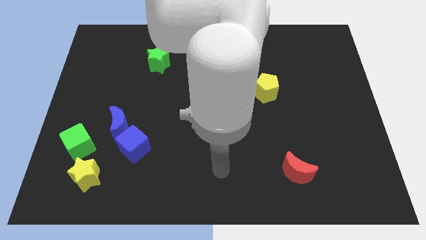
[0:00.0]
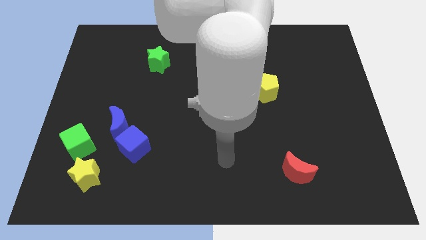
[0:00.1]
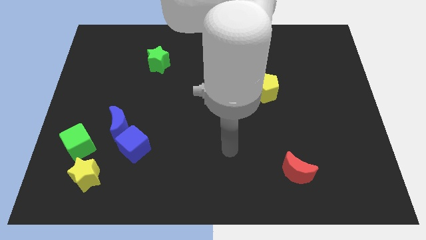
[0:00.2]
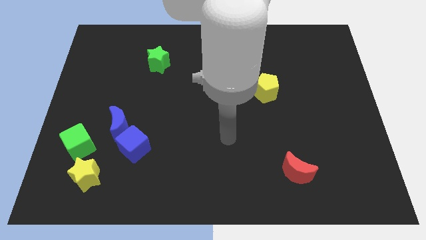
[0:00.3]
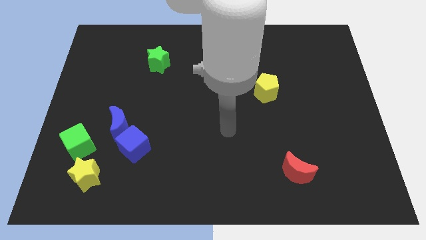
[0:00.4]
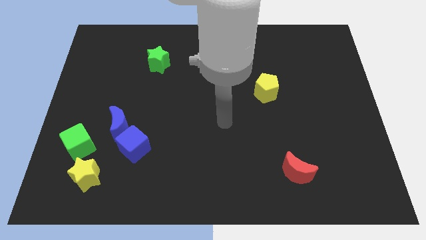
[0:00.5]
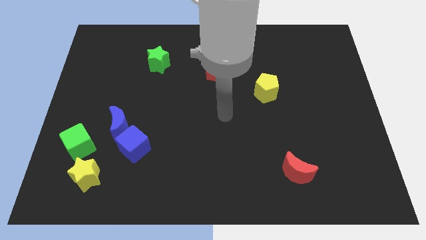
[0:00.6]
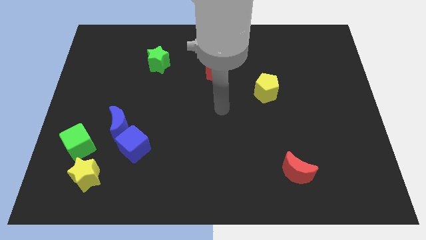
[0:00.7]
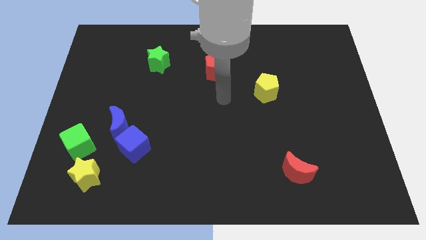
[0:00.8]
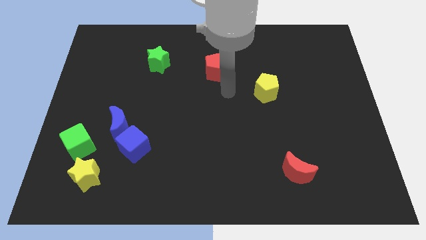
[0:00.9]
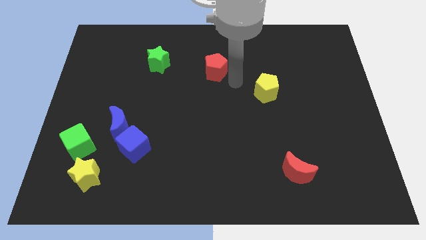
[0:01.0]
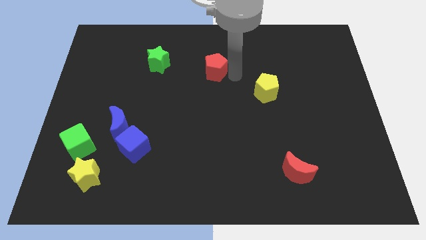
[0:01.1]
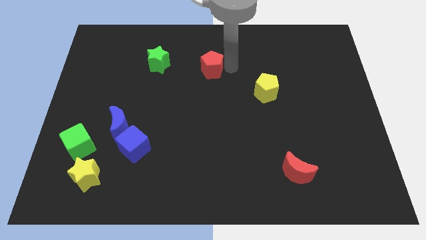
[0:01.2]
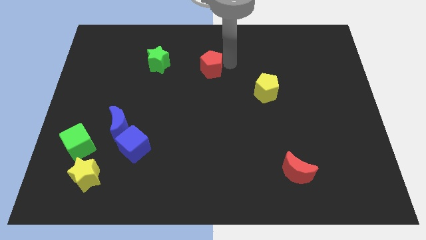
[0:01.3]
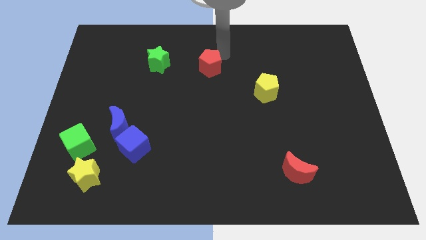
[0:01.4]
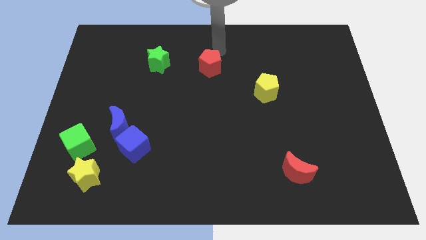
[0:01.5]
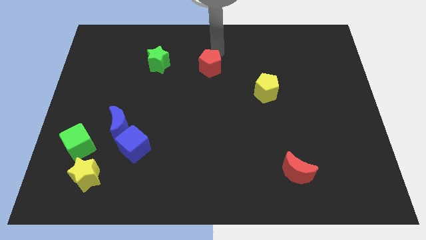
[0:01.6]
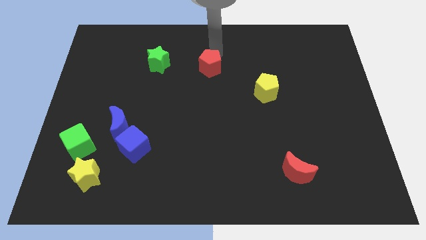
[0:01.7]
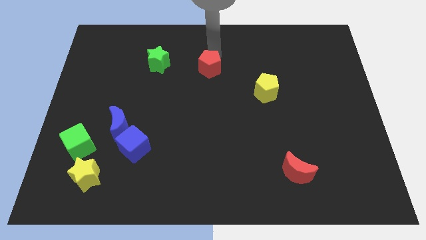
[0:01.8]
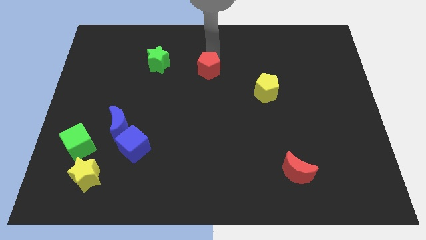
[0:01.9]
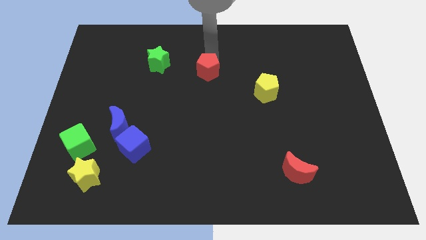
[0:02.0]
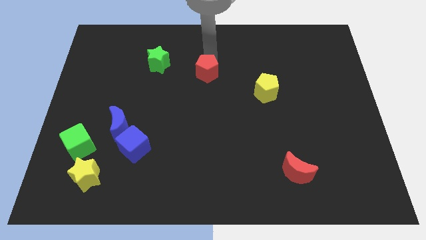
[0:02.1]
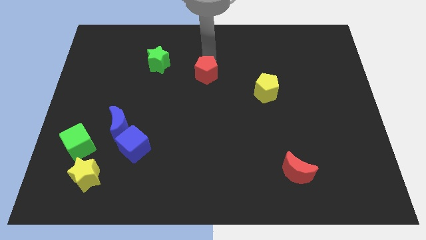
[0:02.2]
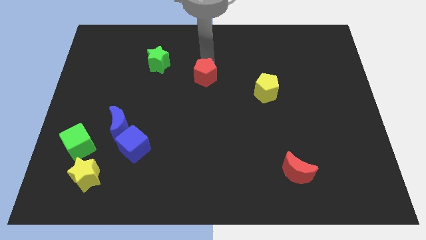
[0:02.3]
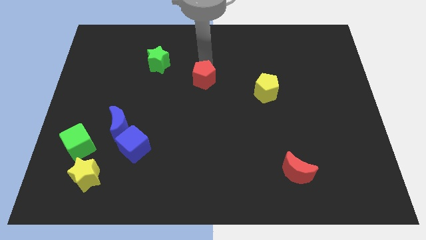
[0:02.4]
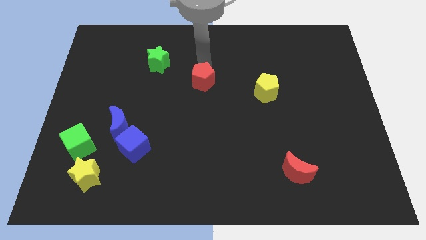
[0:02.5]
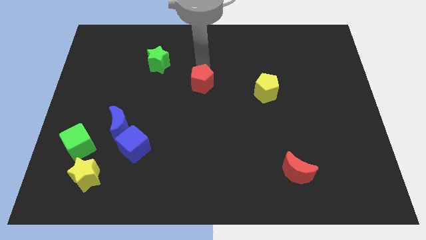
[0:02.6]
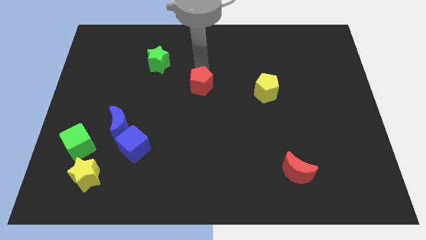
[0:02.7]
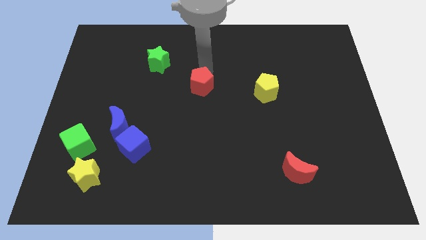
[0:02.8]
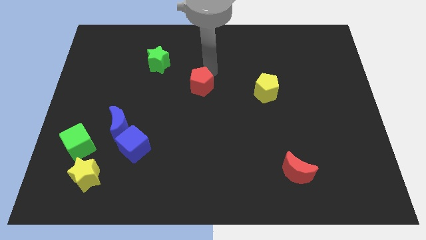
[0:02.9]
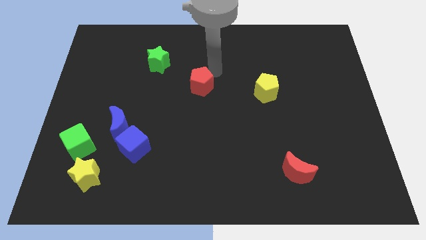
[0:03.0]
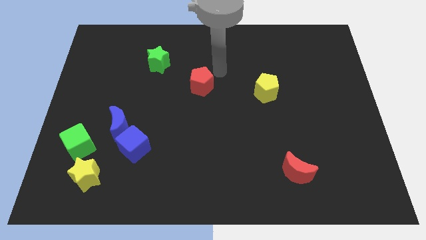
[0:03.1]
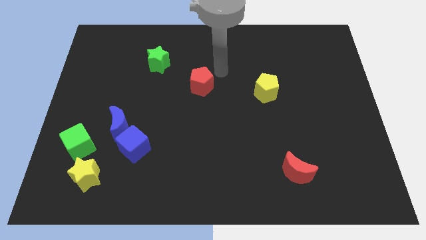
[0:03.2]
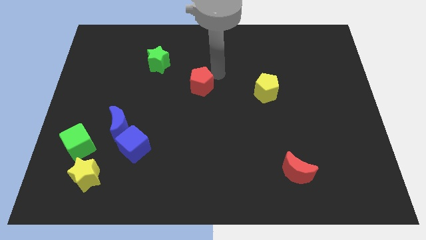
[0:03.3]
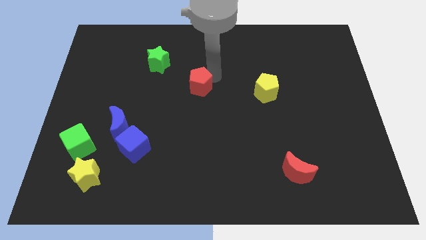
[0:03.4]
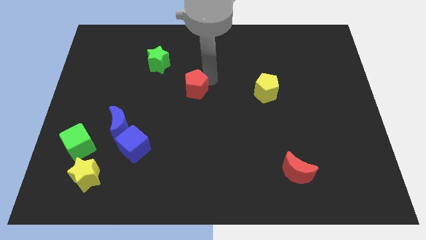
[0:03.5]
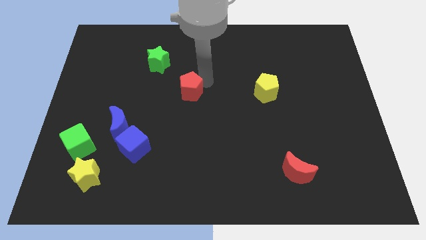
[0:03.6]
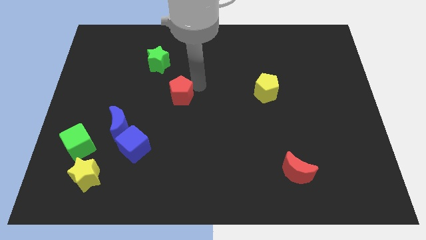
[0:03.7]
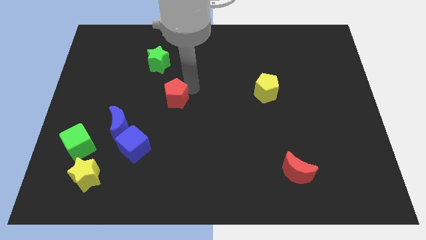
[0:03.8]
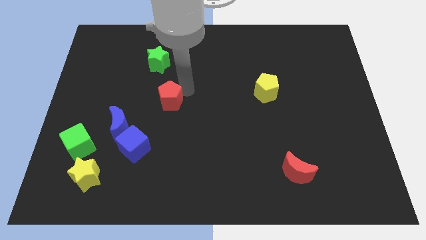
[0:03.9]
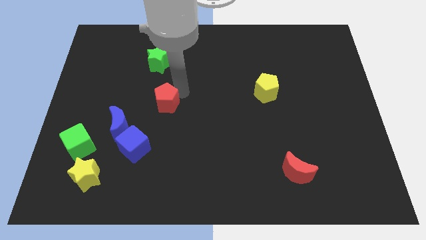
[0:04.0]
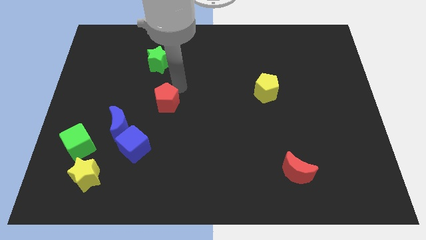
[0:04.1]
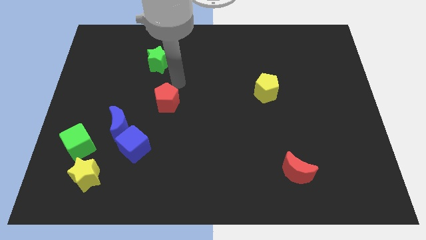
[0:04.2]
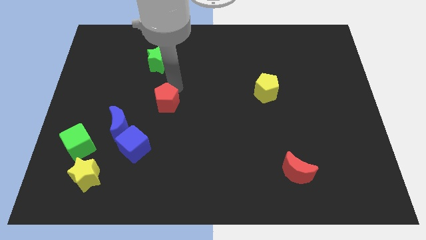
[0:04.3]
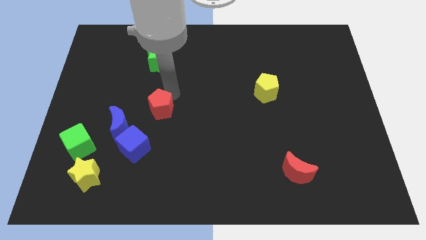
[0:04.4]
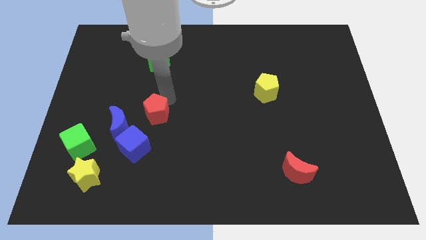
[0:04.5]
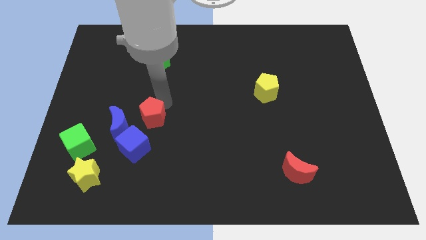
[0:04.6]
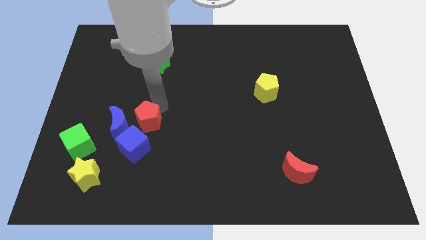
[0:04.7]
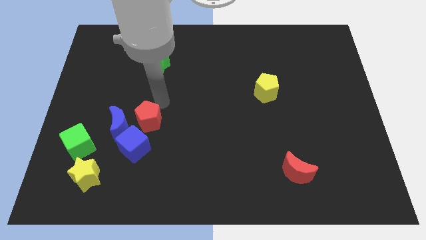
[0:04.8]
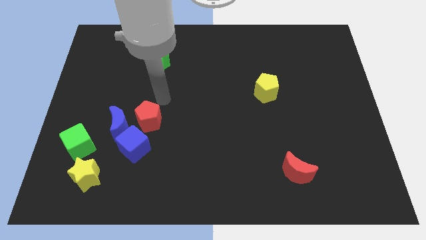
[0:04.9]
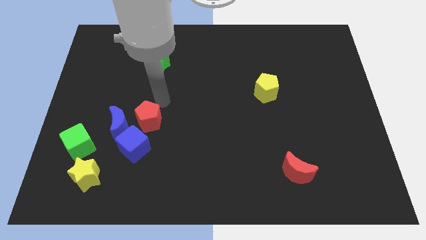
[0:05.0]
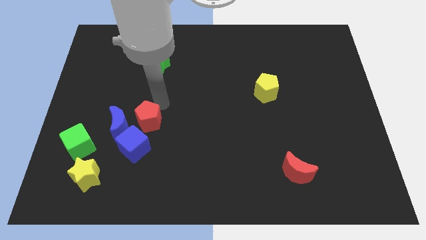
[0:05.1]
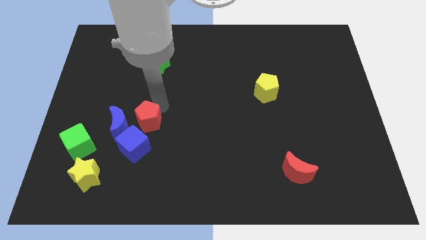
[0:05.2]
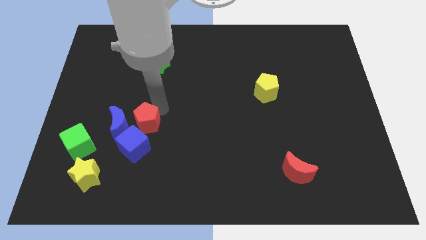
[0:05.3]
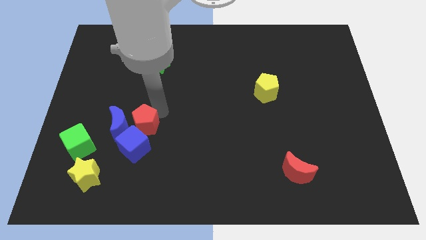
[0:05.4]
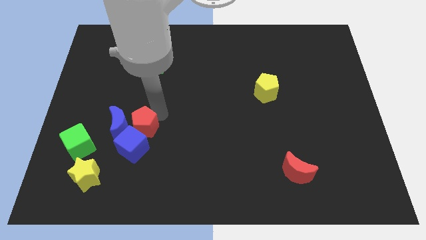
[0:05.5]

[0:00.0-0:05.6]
put the red pentagon towards the blue cube

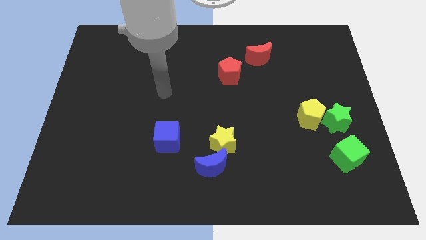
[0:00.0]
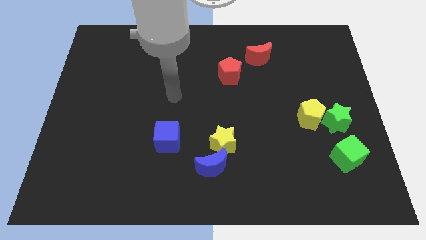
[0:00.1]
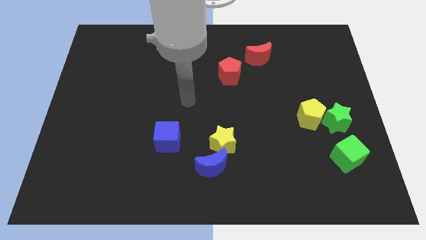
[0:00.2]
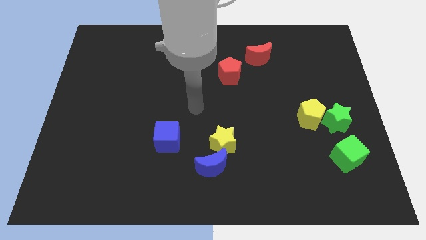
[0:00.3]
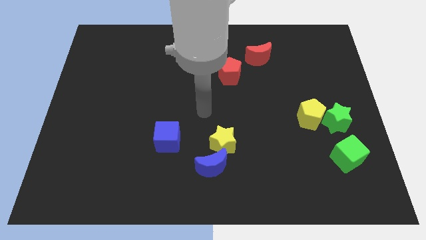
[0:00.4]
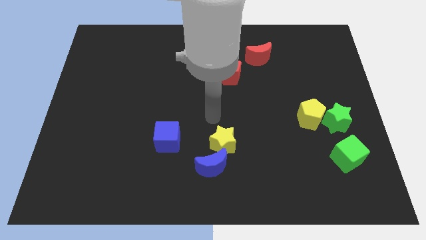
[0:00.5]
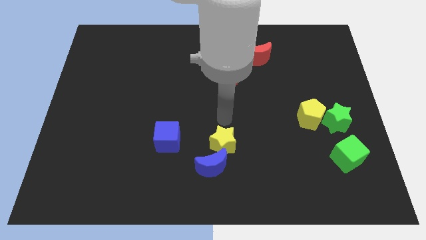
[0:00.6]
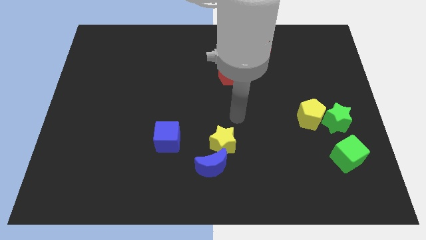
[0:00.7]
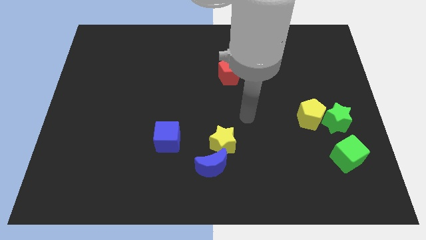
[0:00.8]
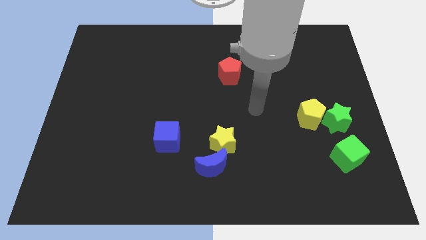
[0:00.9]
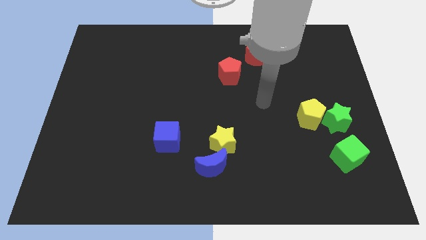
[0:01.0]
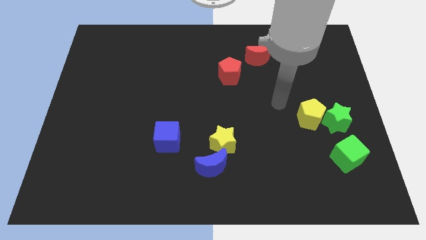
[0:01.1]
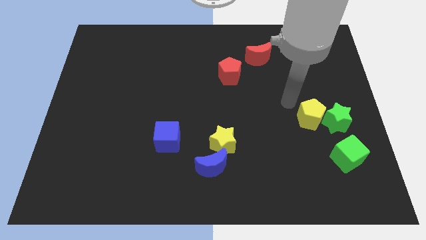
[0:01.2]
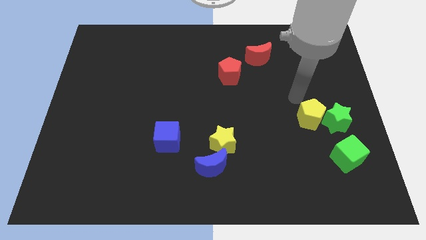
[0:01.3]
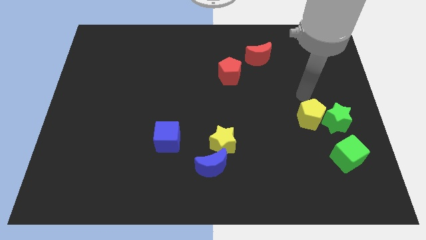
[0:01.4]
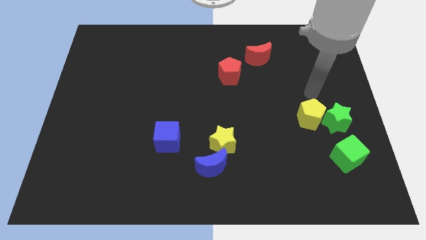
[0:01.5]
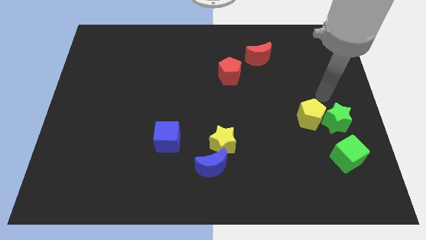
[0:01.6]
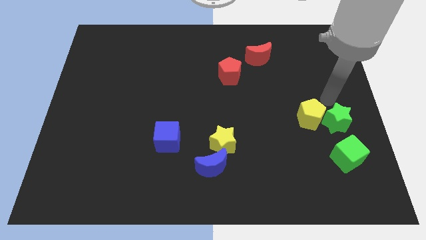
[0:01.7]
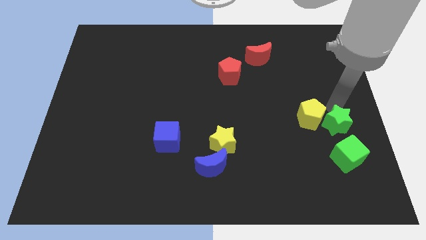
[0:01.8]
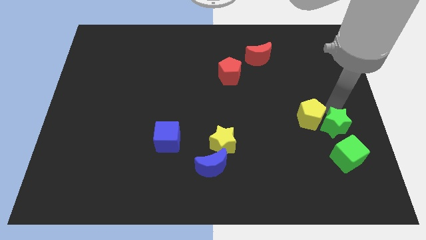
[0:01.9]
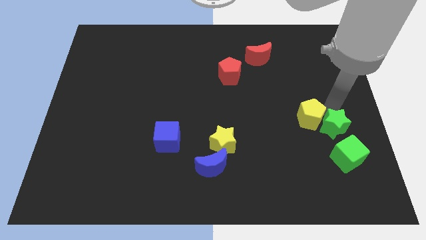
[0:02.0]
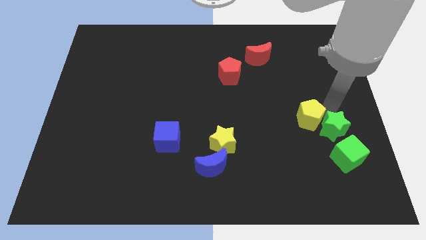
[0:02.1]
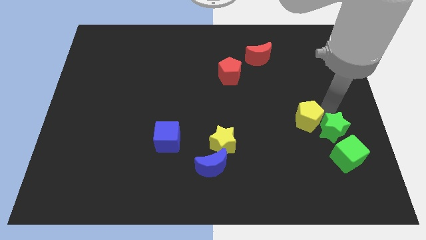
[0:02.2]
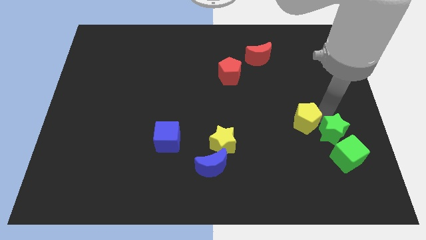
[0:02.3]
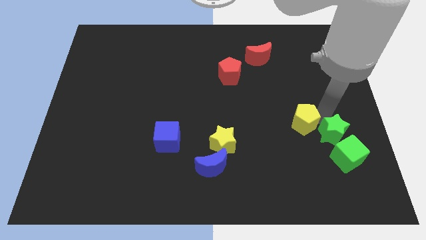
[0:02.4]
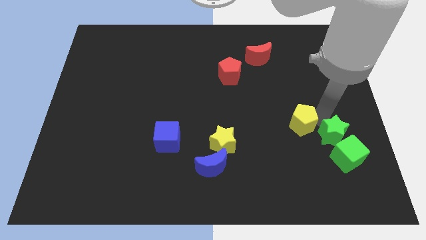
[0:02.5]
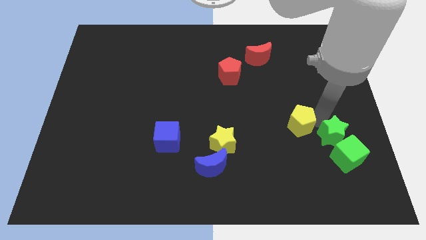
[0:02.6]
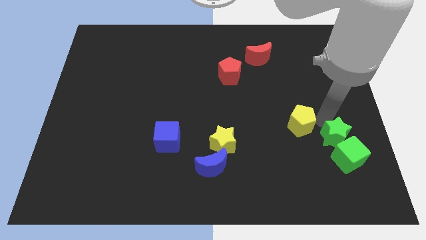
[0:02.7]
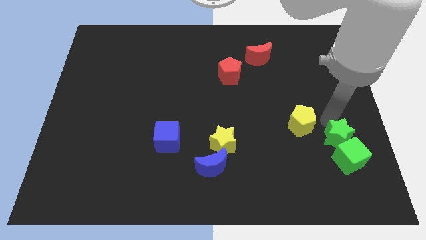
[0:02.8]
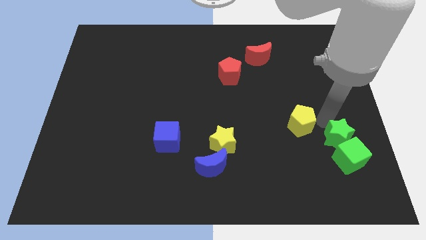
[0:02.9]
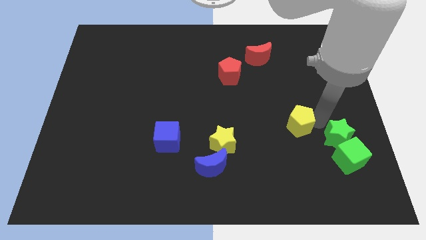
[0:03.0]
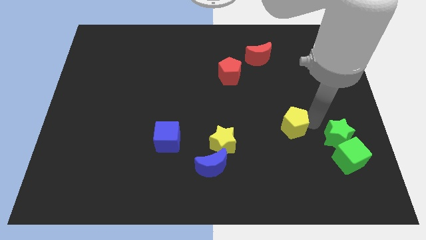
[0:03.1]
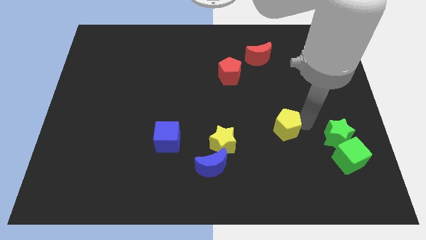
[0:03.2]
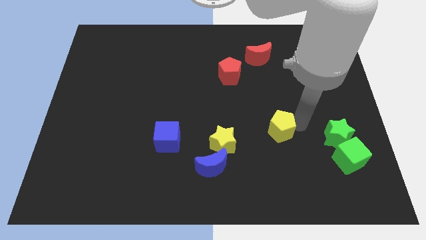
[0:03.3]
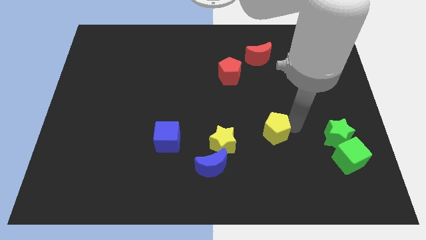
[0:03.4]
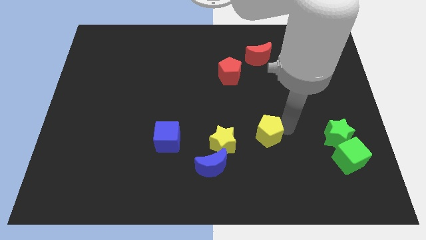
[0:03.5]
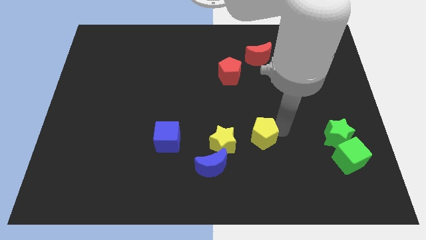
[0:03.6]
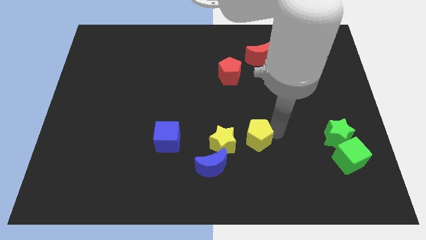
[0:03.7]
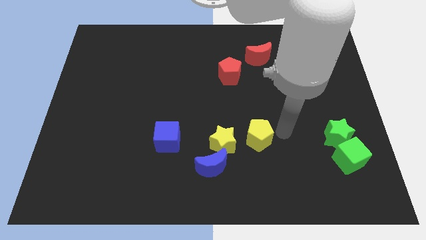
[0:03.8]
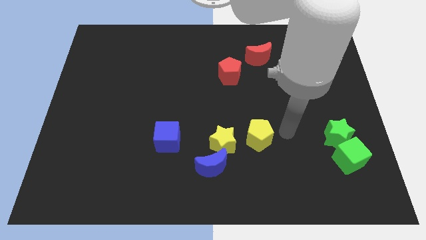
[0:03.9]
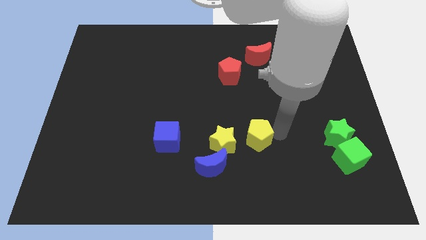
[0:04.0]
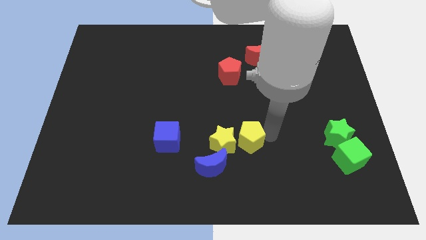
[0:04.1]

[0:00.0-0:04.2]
move the yellow pentagon to the yellow star
